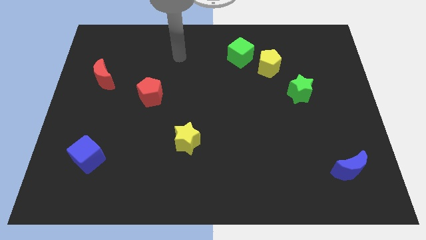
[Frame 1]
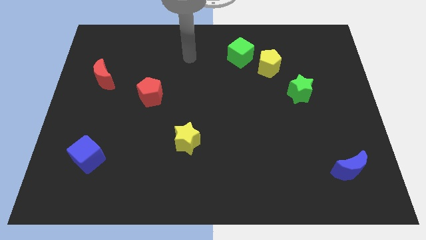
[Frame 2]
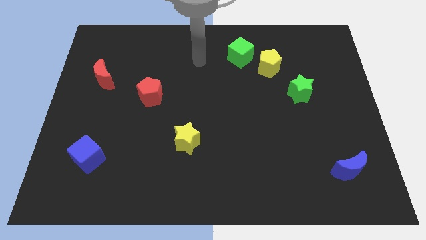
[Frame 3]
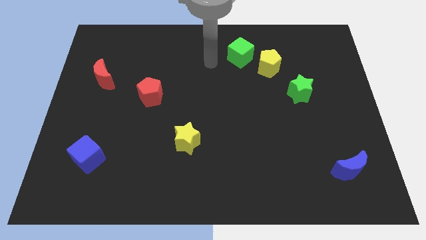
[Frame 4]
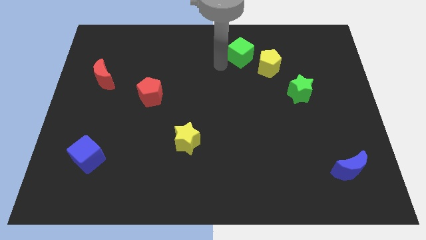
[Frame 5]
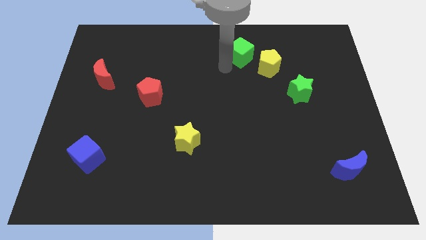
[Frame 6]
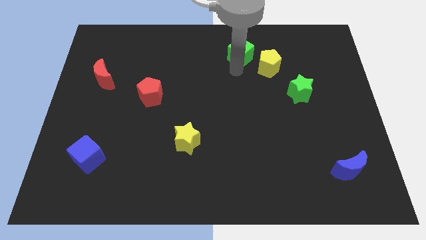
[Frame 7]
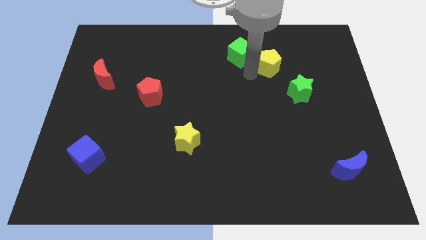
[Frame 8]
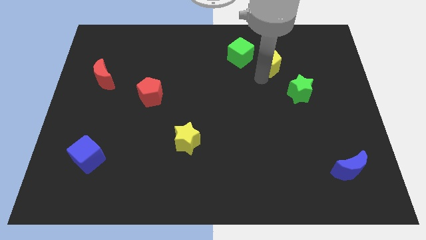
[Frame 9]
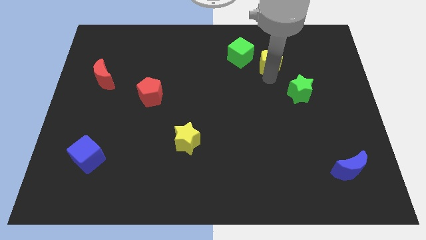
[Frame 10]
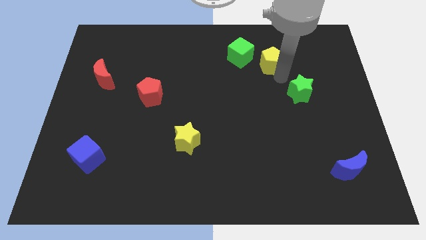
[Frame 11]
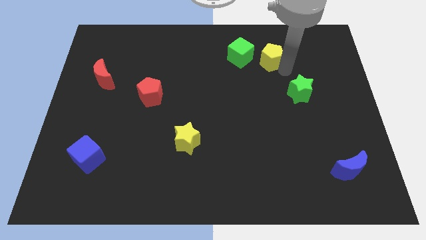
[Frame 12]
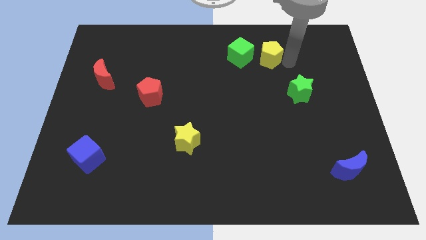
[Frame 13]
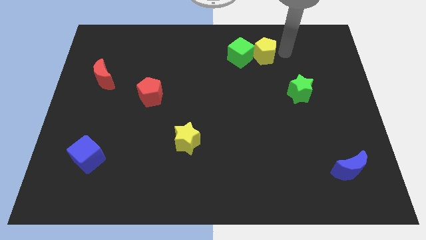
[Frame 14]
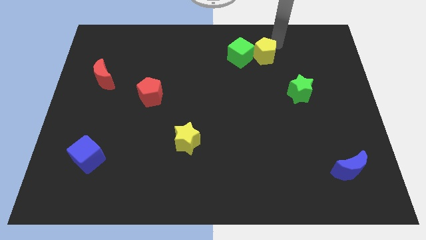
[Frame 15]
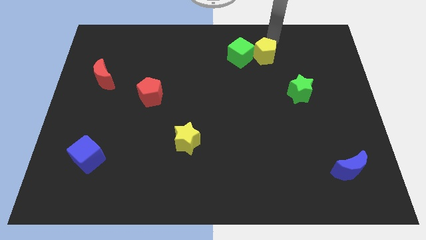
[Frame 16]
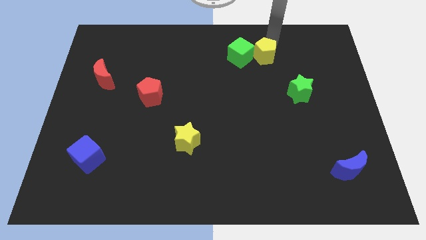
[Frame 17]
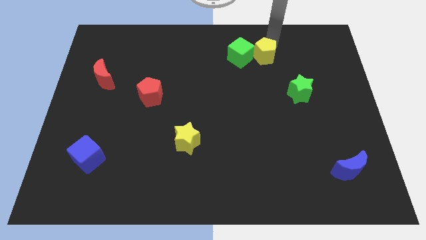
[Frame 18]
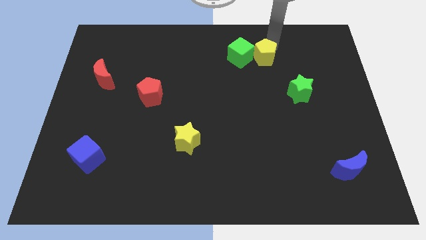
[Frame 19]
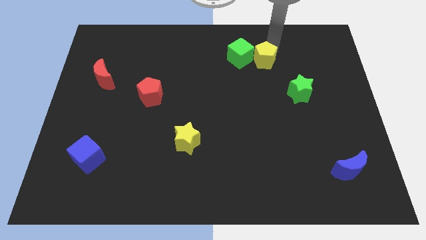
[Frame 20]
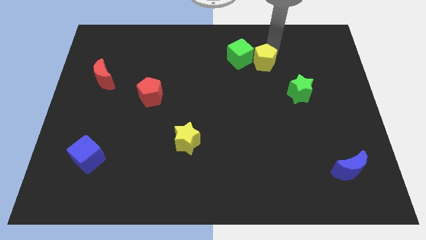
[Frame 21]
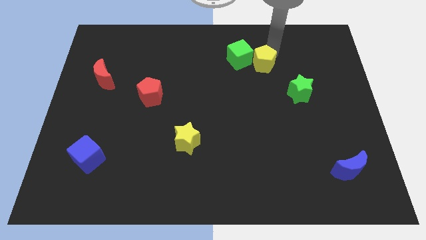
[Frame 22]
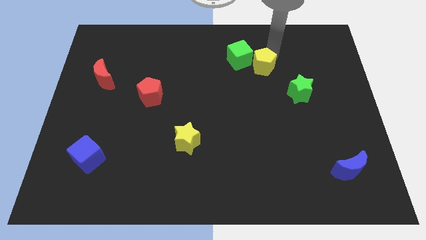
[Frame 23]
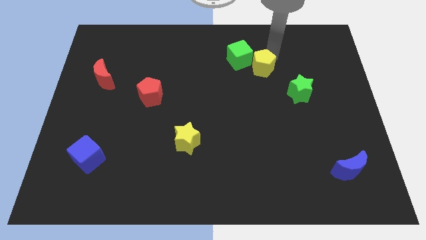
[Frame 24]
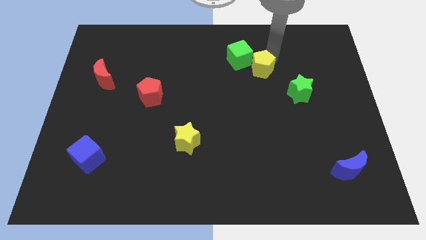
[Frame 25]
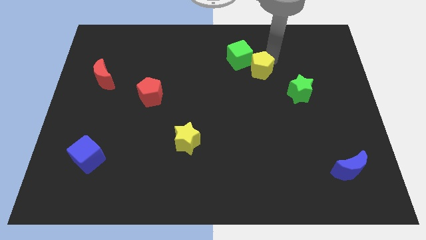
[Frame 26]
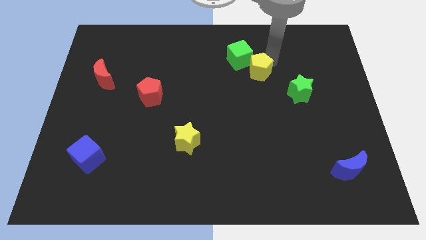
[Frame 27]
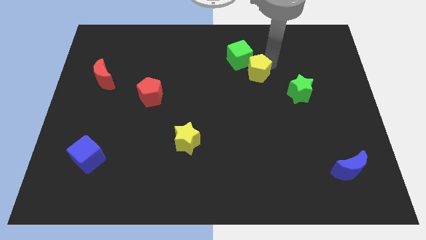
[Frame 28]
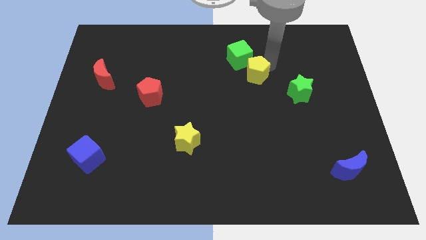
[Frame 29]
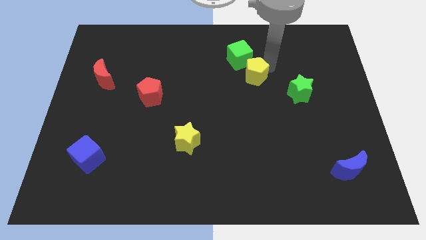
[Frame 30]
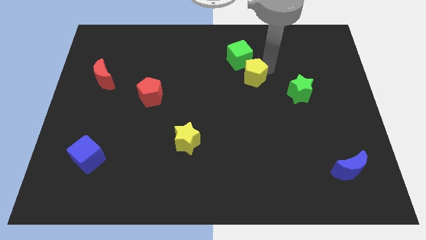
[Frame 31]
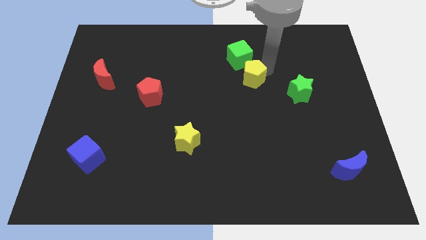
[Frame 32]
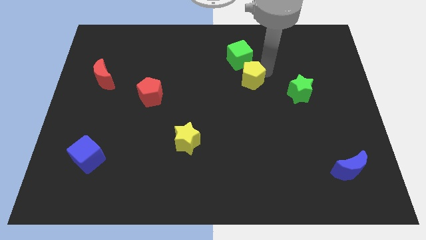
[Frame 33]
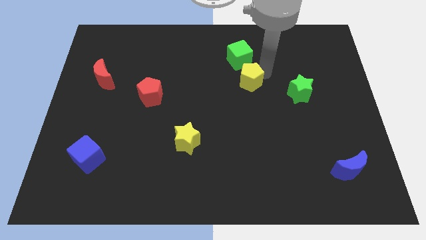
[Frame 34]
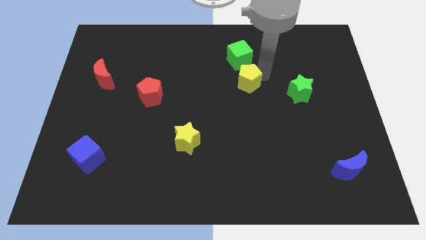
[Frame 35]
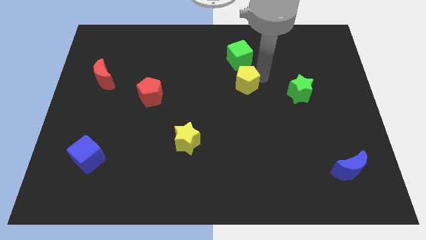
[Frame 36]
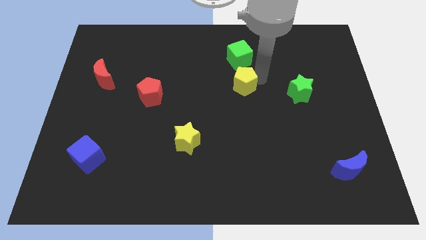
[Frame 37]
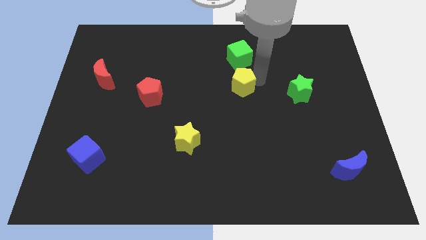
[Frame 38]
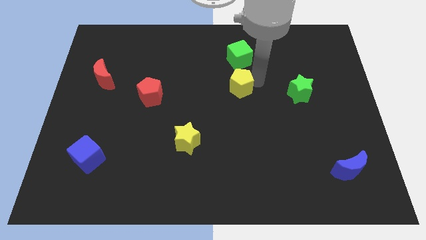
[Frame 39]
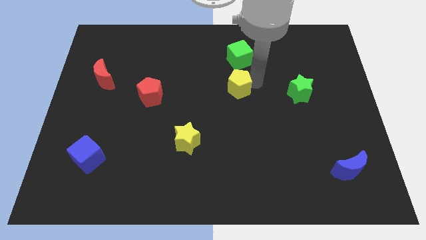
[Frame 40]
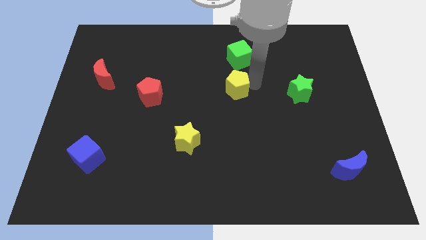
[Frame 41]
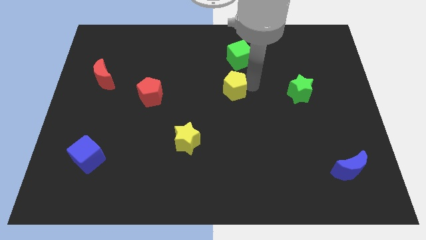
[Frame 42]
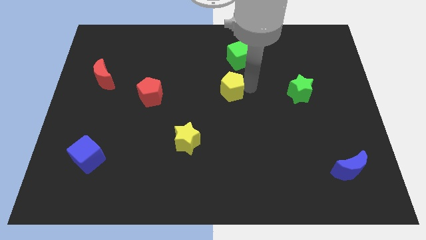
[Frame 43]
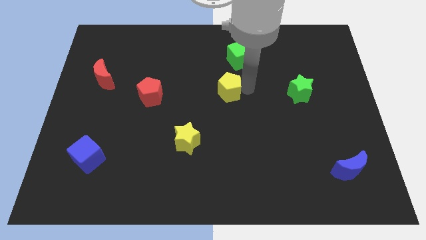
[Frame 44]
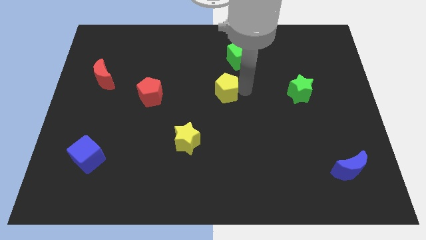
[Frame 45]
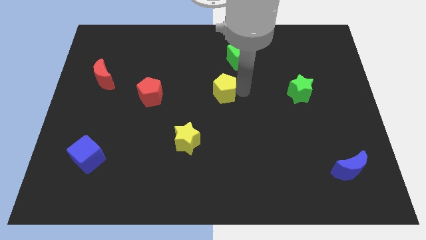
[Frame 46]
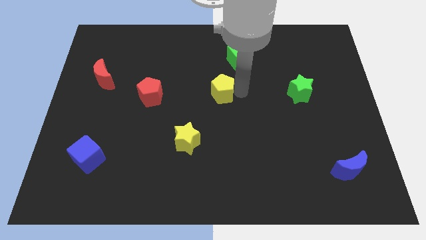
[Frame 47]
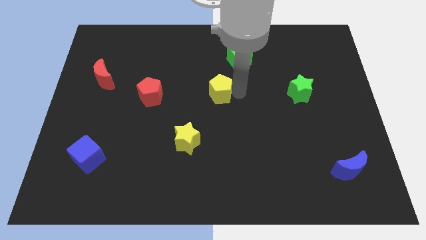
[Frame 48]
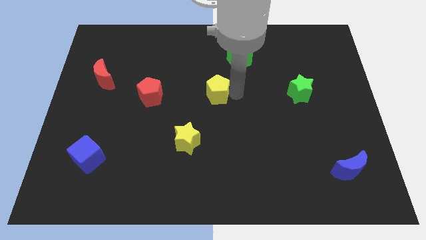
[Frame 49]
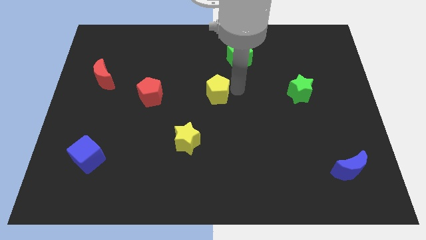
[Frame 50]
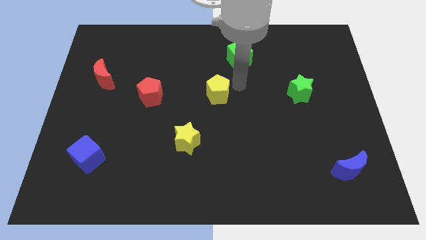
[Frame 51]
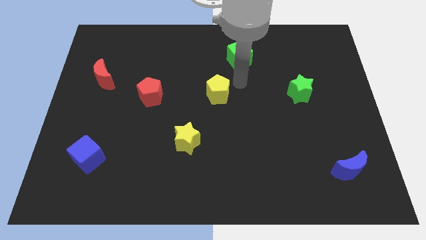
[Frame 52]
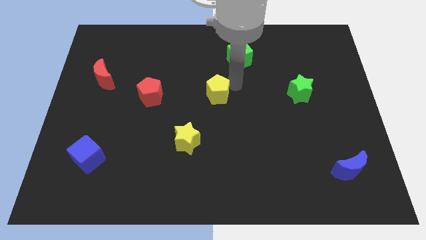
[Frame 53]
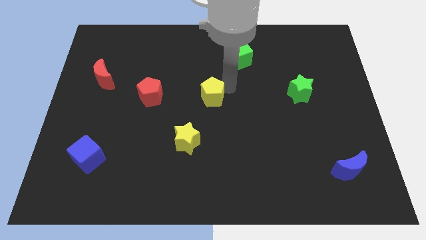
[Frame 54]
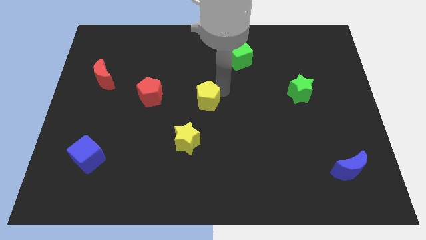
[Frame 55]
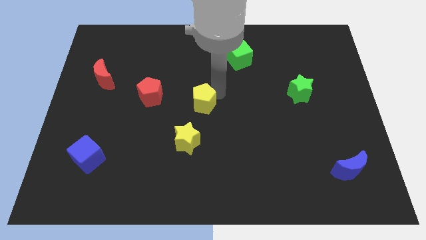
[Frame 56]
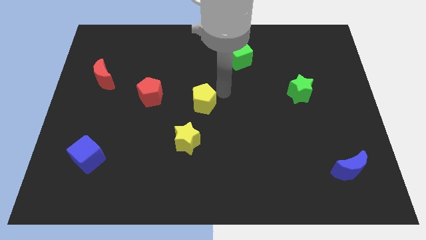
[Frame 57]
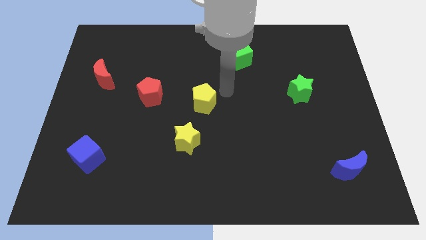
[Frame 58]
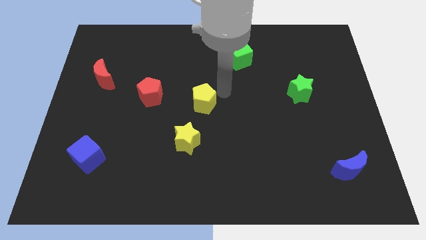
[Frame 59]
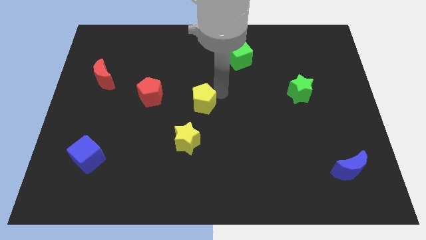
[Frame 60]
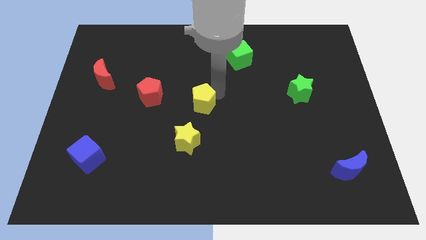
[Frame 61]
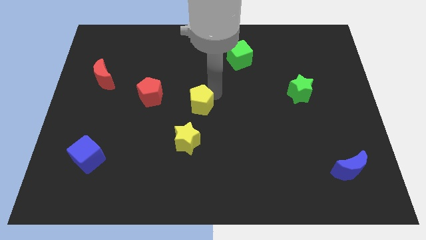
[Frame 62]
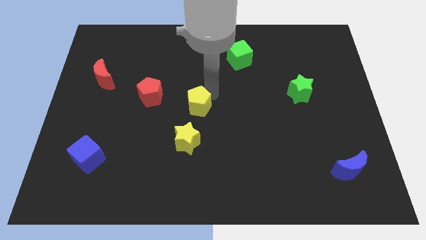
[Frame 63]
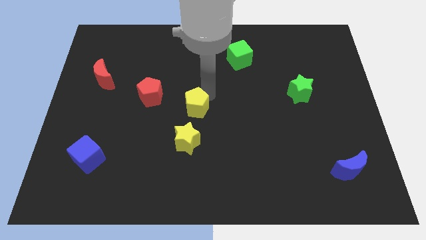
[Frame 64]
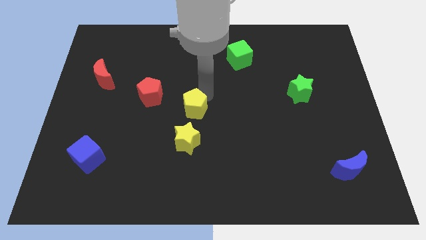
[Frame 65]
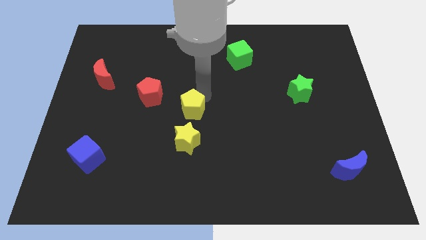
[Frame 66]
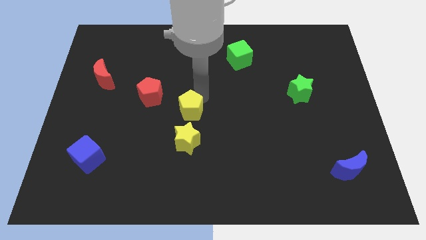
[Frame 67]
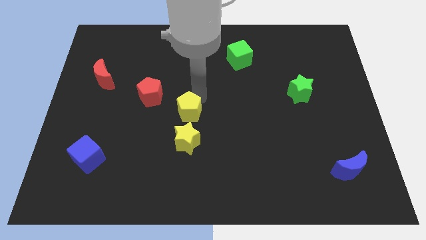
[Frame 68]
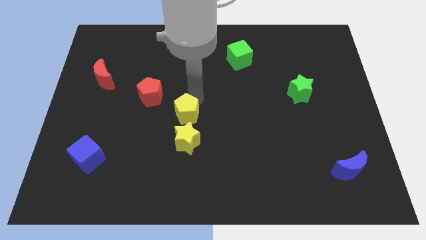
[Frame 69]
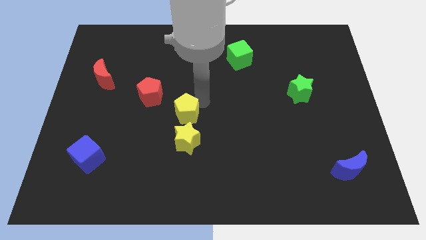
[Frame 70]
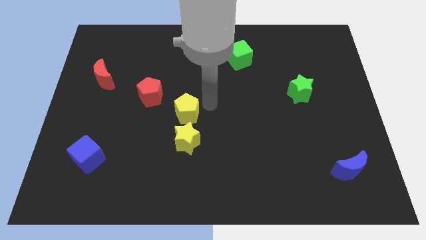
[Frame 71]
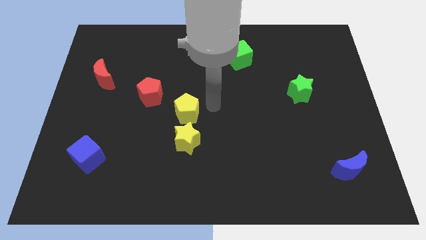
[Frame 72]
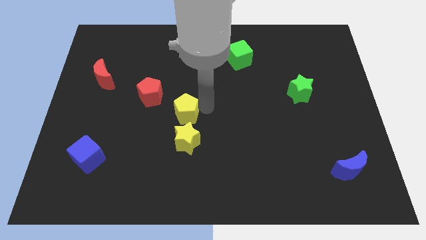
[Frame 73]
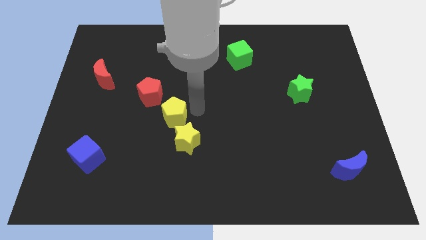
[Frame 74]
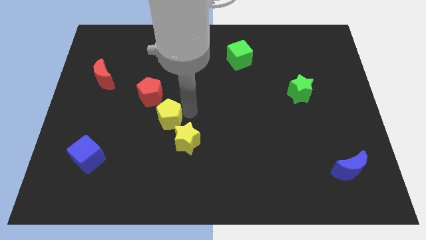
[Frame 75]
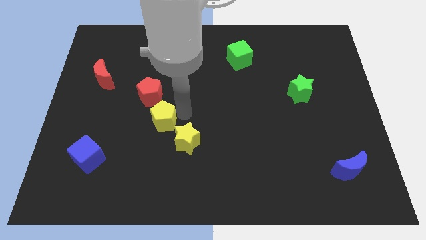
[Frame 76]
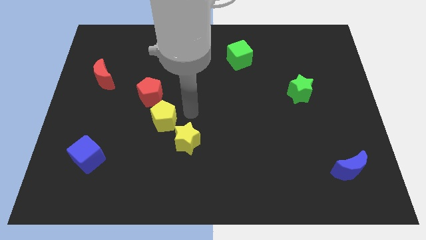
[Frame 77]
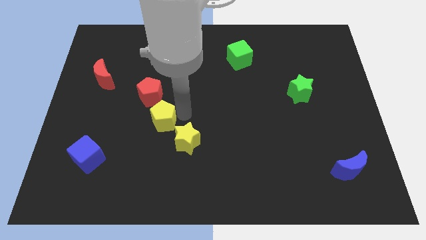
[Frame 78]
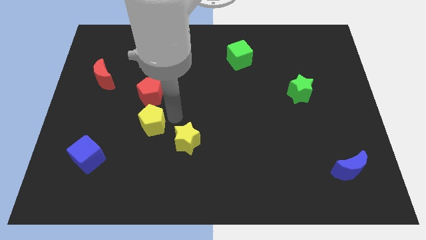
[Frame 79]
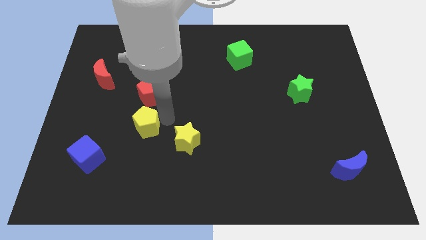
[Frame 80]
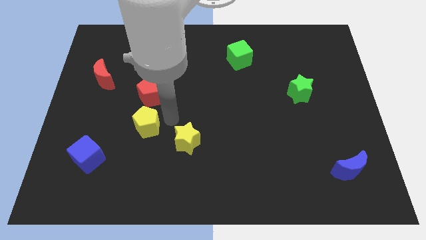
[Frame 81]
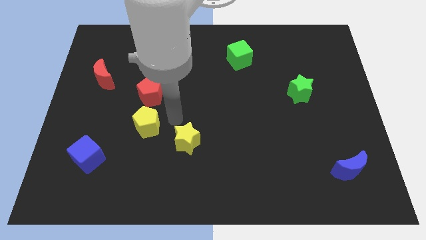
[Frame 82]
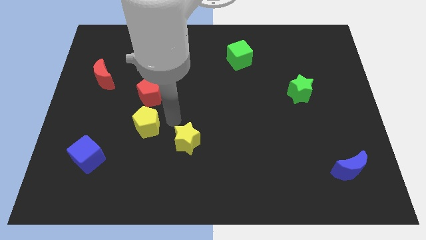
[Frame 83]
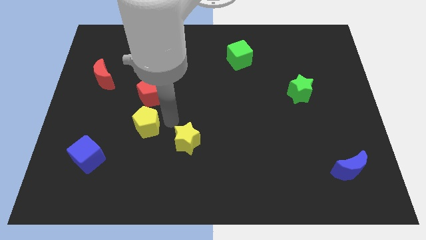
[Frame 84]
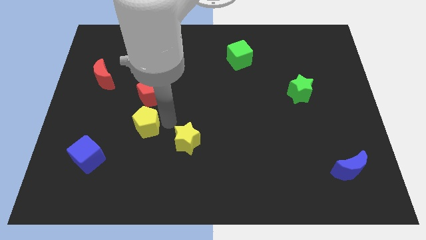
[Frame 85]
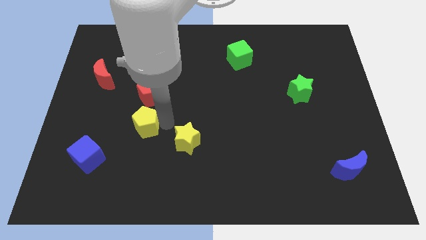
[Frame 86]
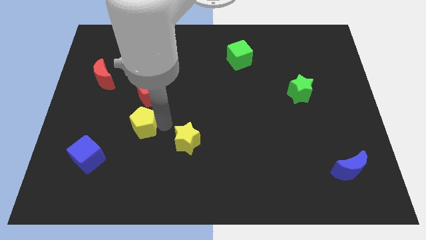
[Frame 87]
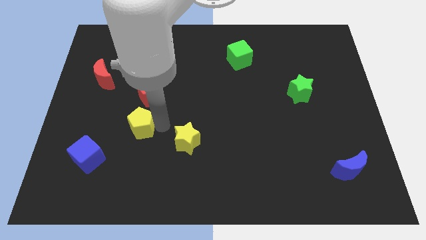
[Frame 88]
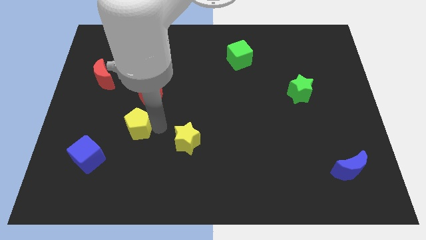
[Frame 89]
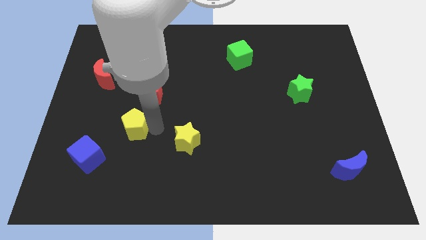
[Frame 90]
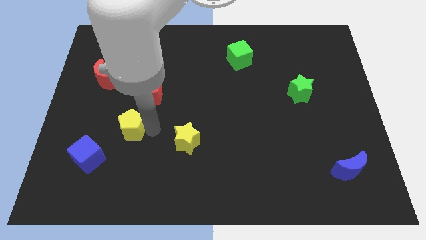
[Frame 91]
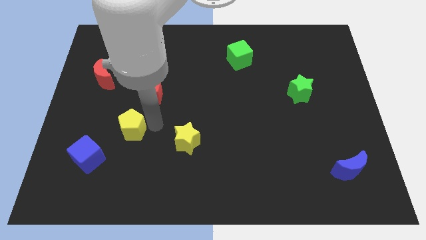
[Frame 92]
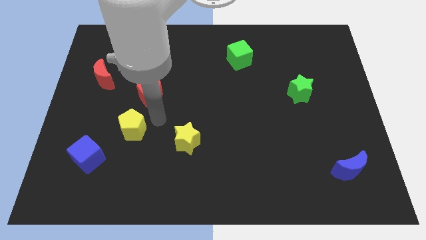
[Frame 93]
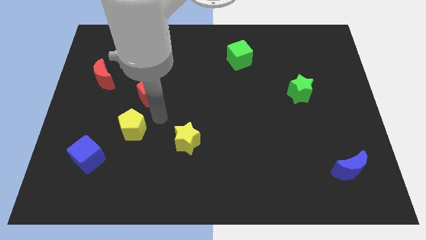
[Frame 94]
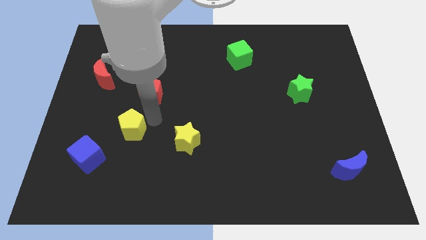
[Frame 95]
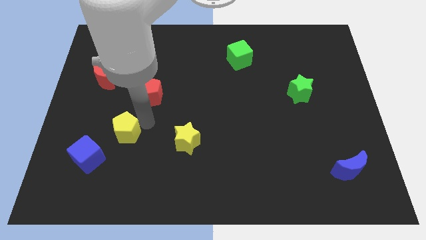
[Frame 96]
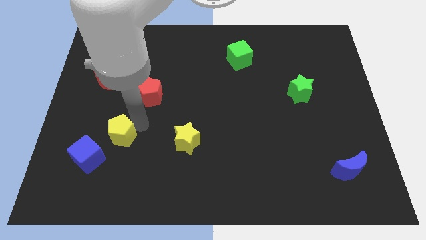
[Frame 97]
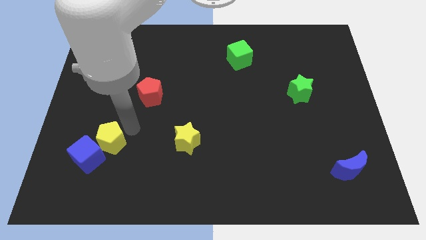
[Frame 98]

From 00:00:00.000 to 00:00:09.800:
put the yellow pentagon to the blue cube
